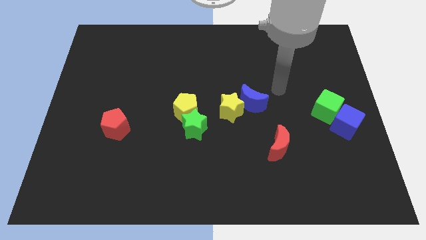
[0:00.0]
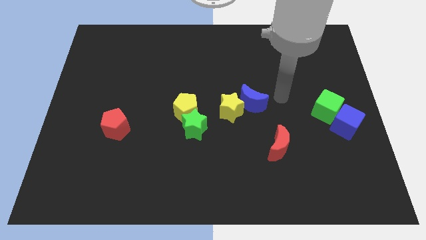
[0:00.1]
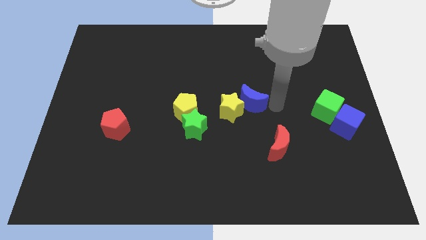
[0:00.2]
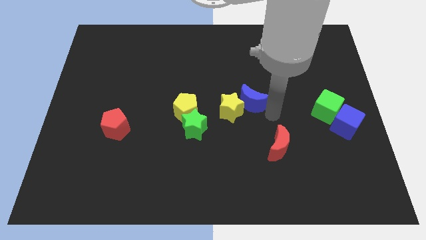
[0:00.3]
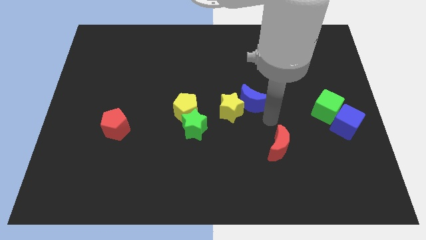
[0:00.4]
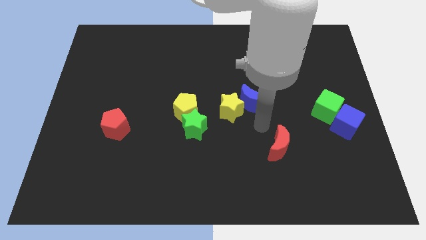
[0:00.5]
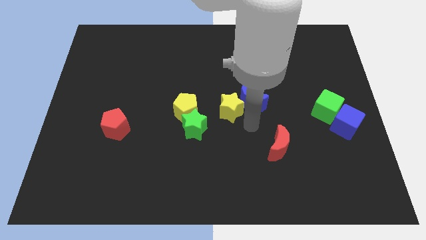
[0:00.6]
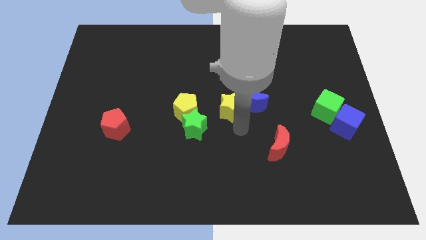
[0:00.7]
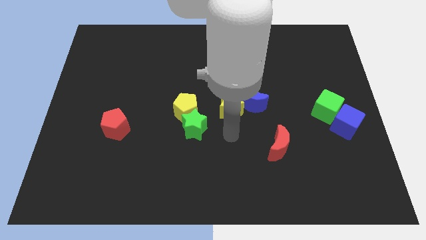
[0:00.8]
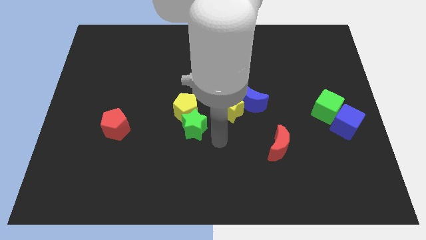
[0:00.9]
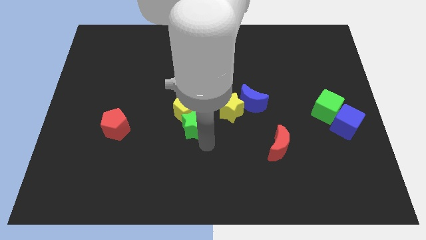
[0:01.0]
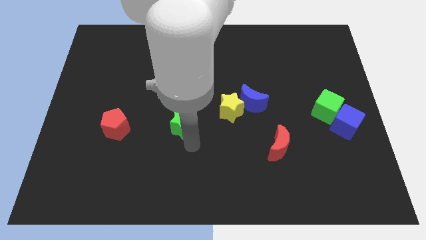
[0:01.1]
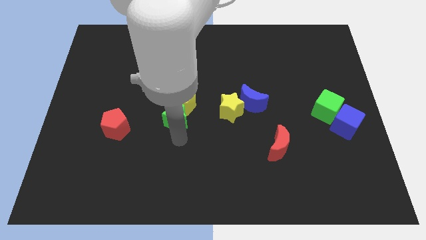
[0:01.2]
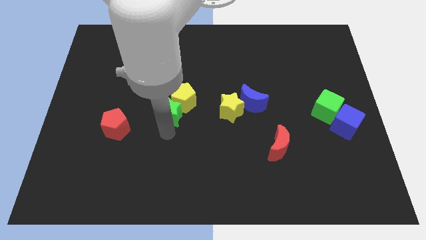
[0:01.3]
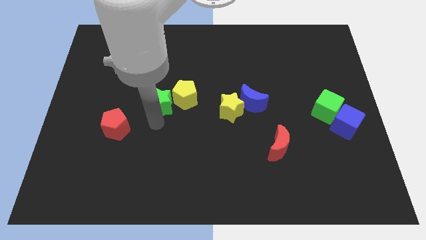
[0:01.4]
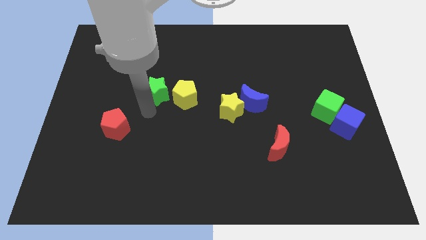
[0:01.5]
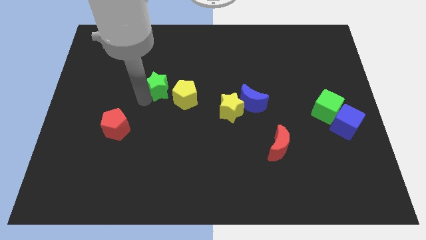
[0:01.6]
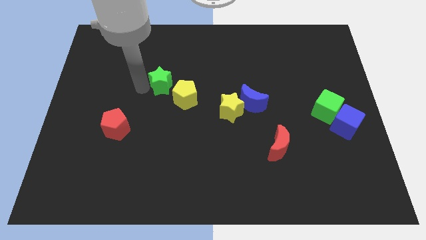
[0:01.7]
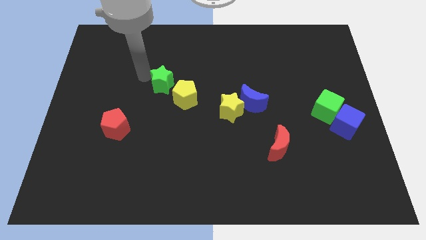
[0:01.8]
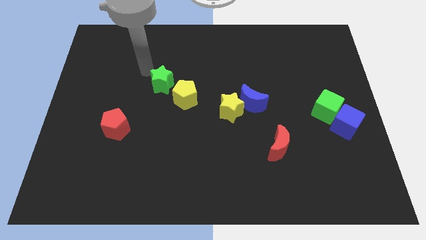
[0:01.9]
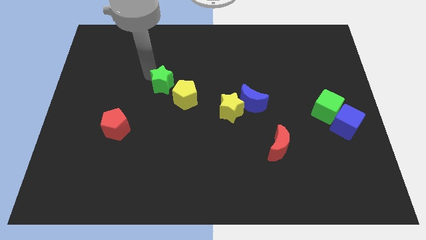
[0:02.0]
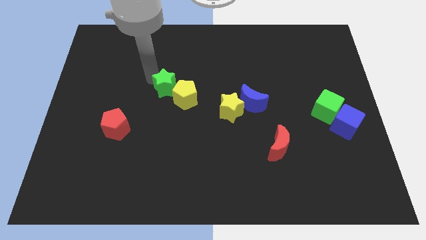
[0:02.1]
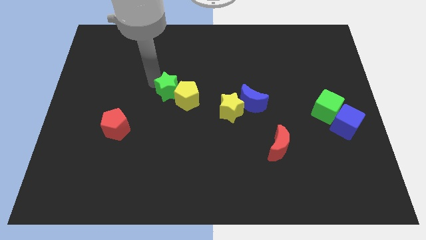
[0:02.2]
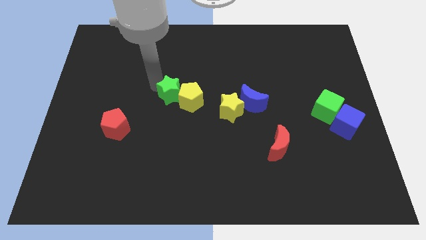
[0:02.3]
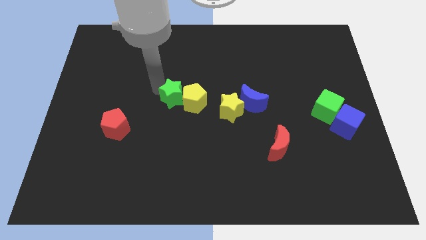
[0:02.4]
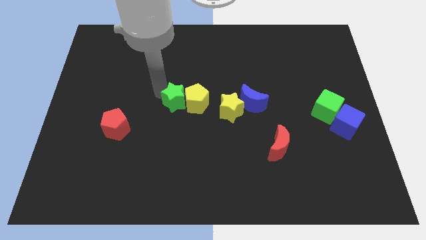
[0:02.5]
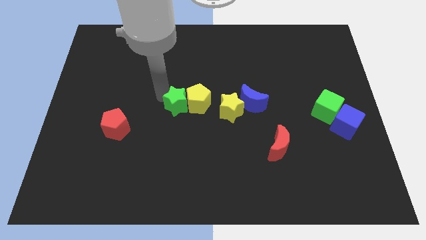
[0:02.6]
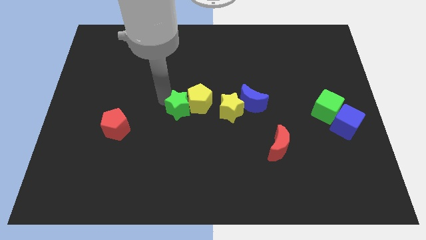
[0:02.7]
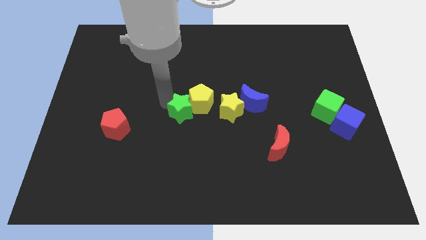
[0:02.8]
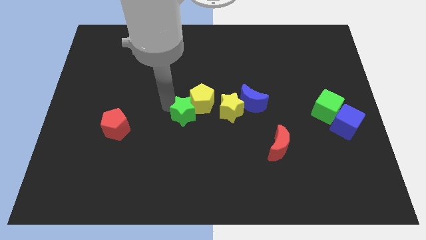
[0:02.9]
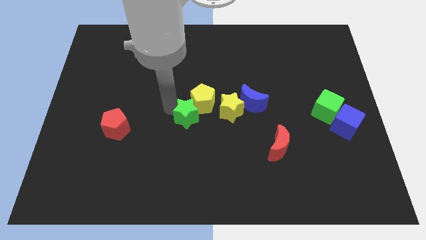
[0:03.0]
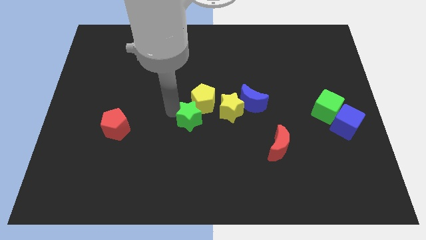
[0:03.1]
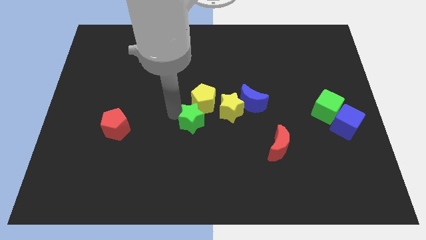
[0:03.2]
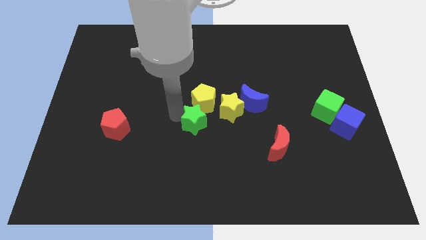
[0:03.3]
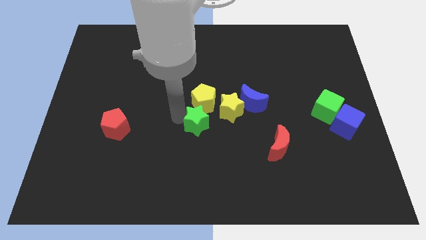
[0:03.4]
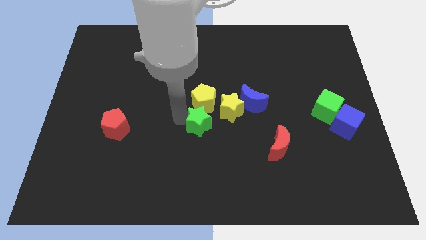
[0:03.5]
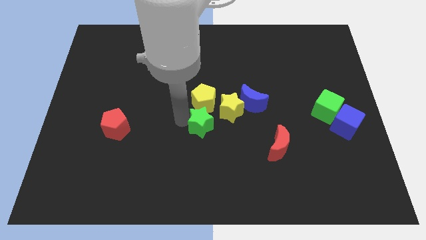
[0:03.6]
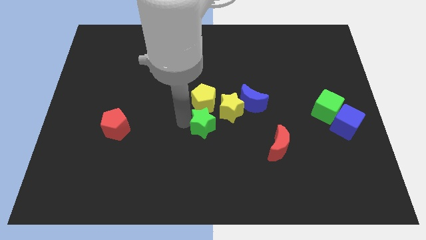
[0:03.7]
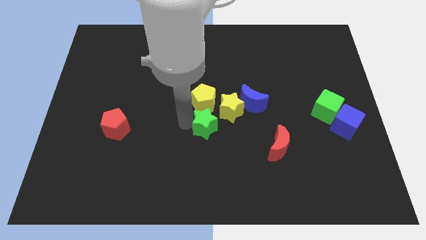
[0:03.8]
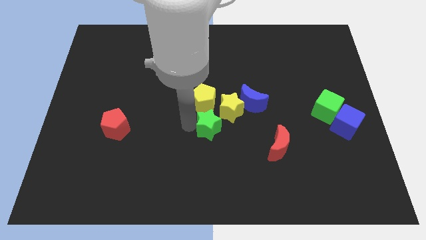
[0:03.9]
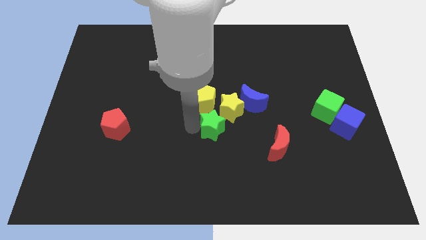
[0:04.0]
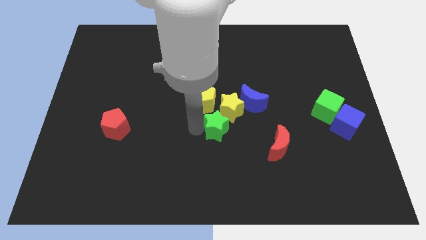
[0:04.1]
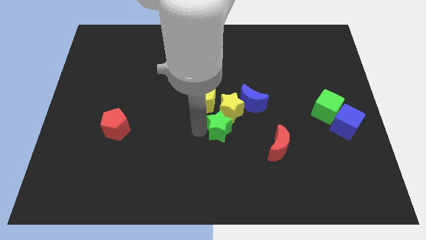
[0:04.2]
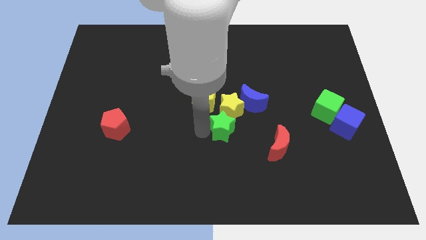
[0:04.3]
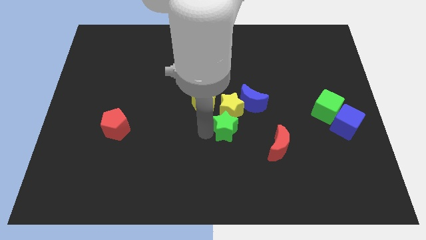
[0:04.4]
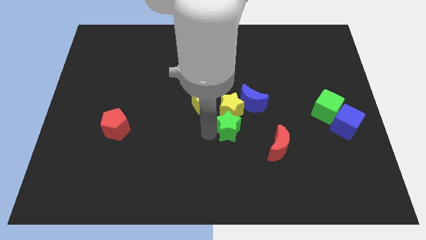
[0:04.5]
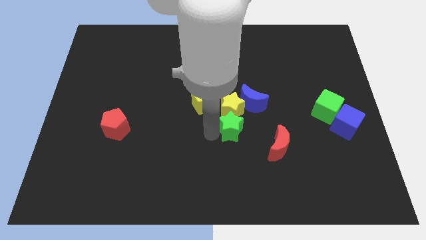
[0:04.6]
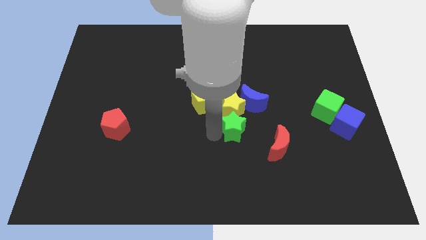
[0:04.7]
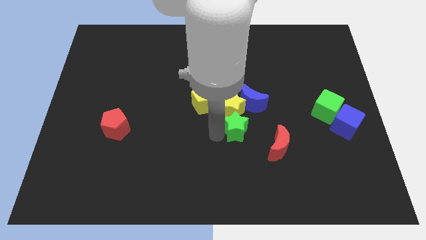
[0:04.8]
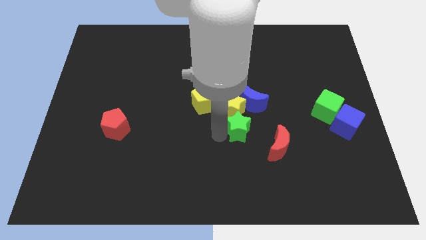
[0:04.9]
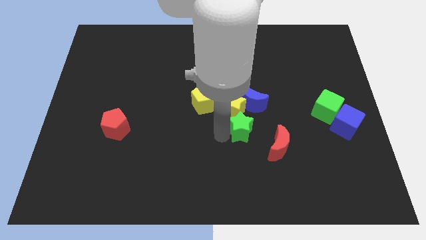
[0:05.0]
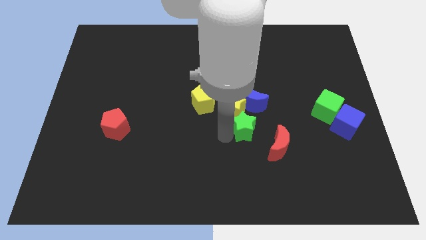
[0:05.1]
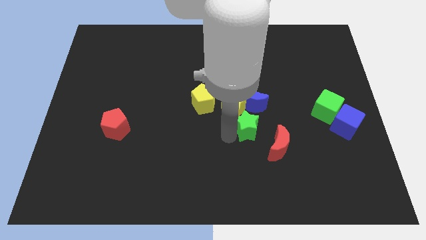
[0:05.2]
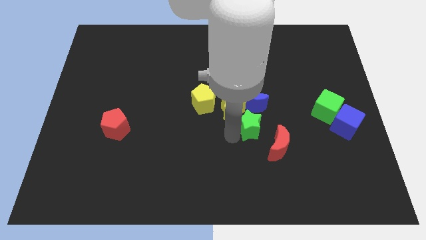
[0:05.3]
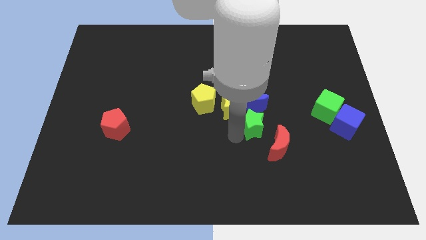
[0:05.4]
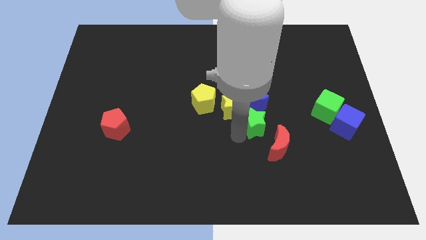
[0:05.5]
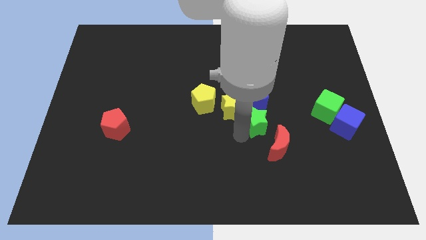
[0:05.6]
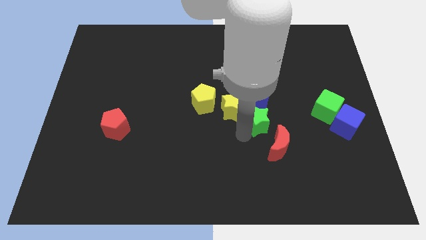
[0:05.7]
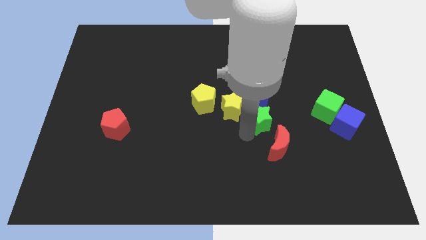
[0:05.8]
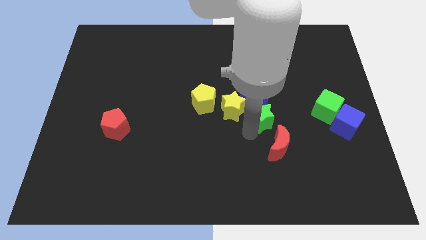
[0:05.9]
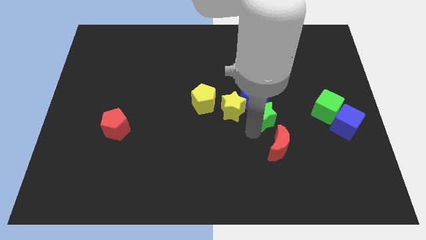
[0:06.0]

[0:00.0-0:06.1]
put the green star just left of the green cube
